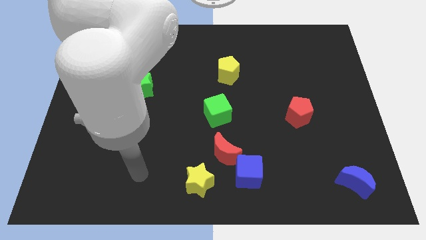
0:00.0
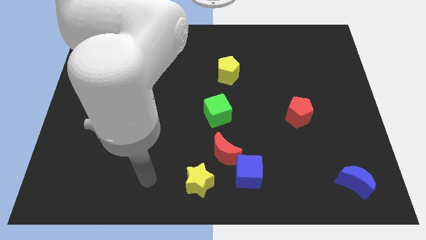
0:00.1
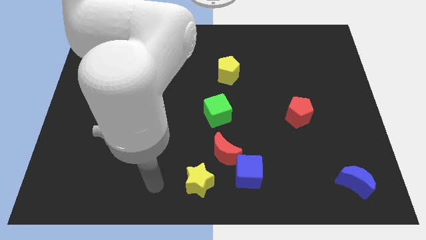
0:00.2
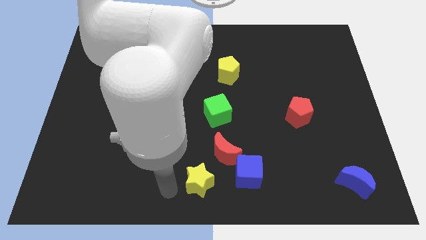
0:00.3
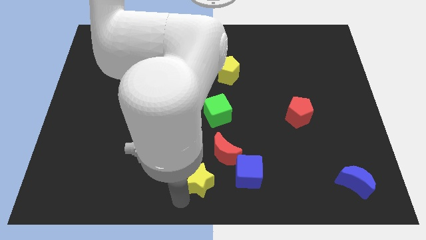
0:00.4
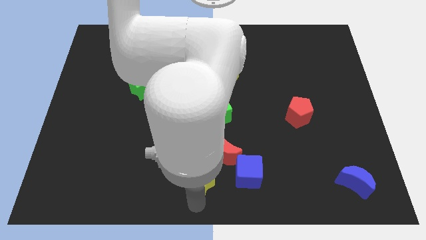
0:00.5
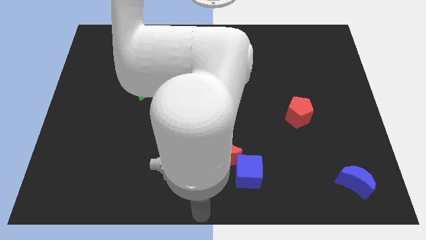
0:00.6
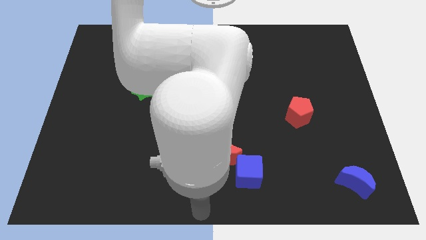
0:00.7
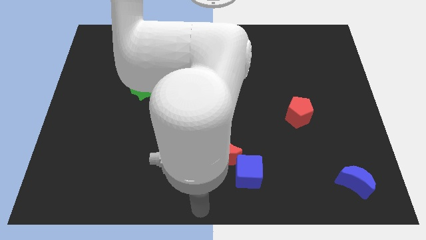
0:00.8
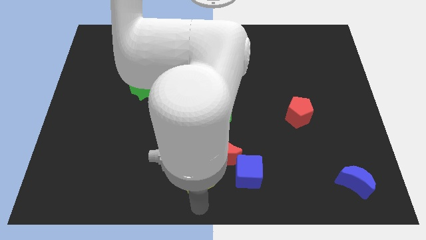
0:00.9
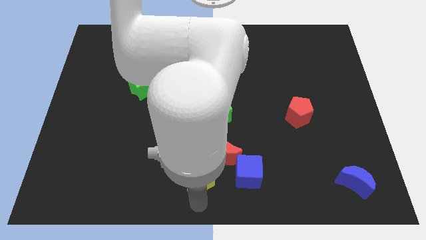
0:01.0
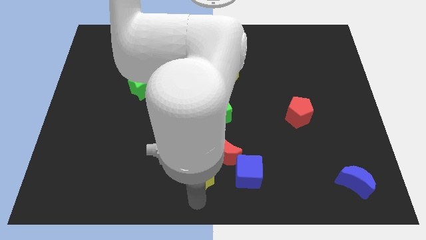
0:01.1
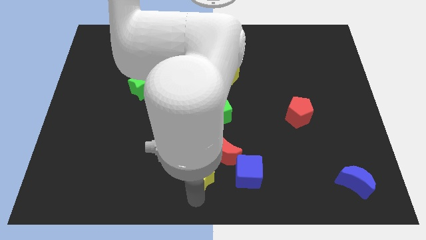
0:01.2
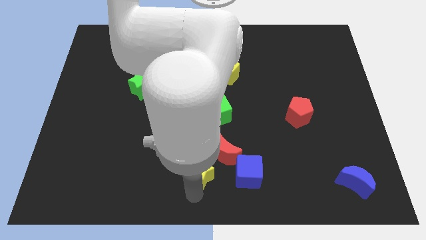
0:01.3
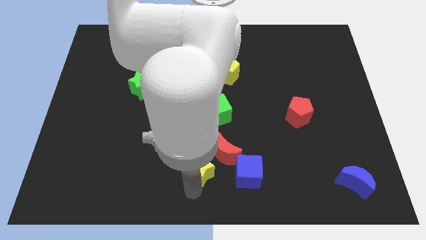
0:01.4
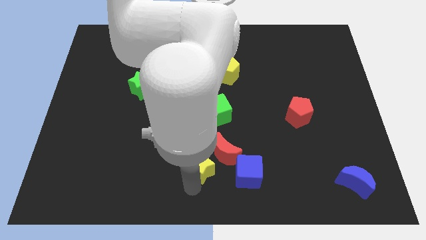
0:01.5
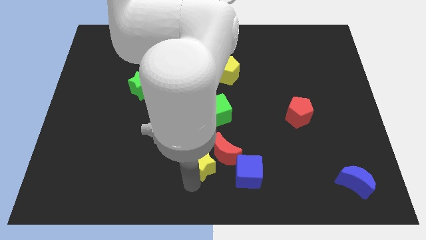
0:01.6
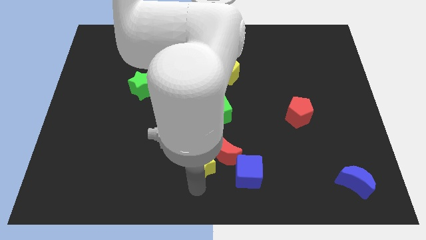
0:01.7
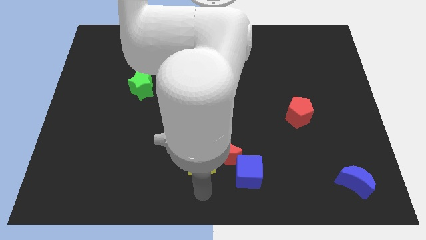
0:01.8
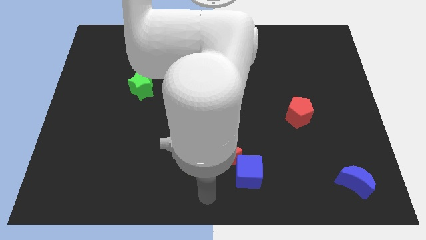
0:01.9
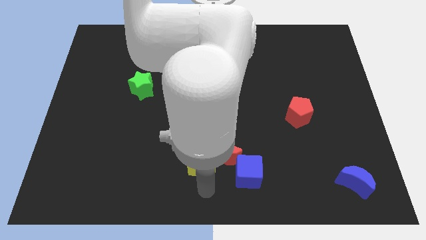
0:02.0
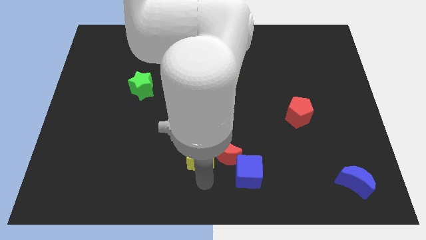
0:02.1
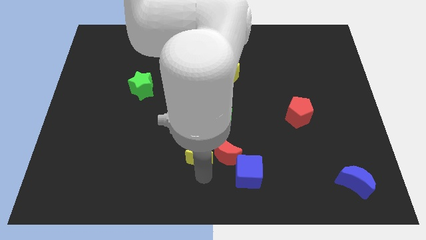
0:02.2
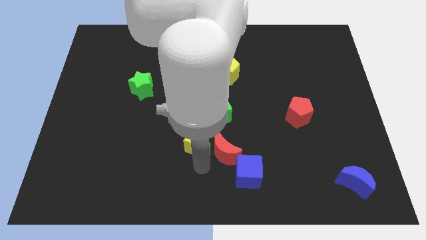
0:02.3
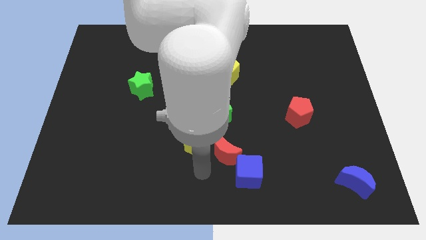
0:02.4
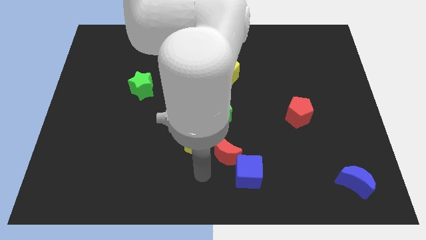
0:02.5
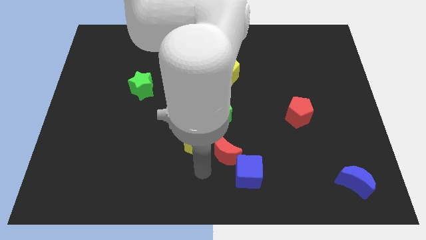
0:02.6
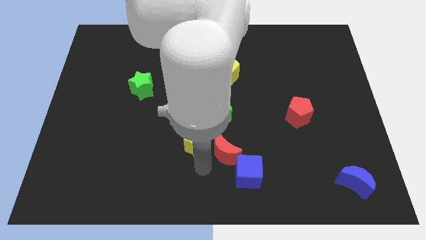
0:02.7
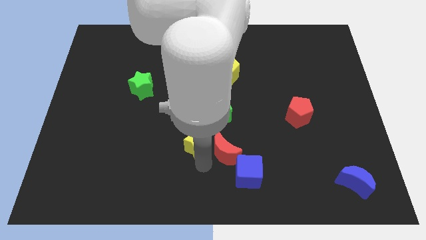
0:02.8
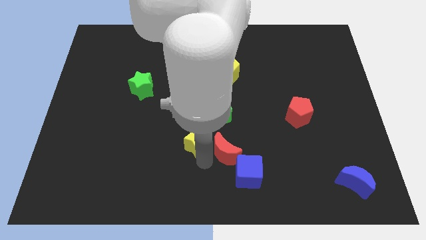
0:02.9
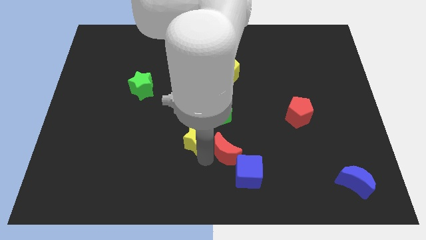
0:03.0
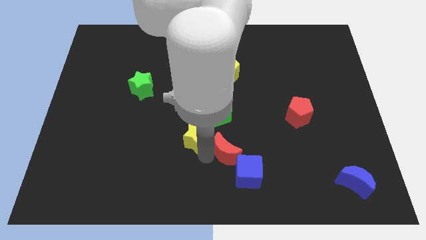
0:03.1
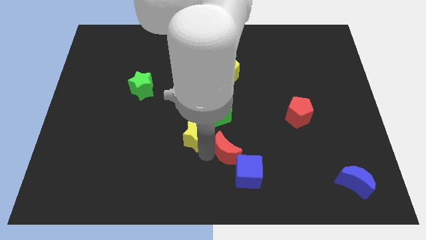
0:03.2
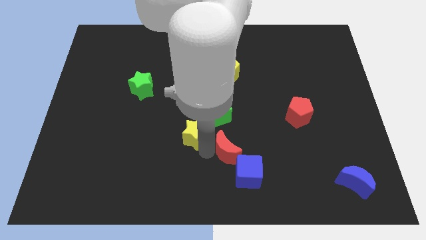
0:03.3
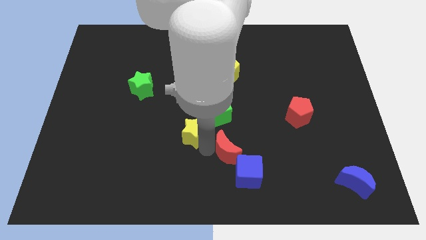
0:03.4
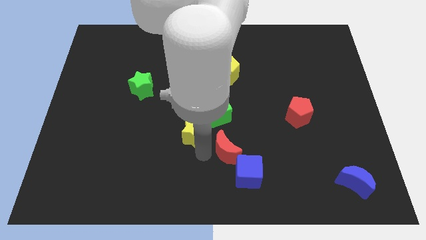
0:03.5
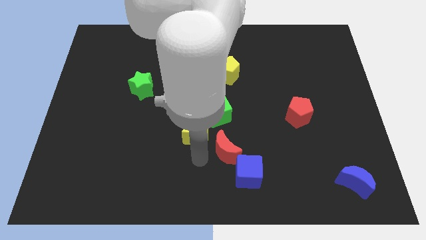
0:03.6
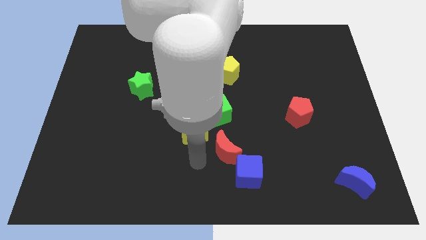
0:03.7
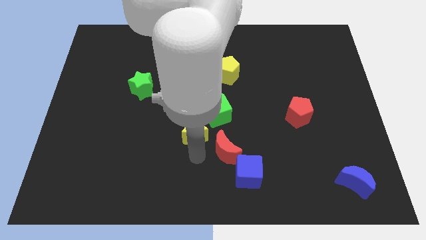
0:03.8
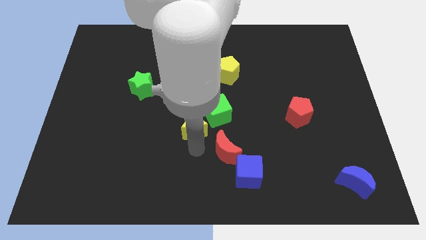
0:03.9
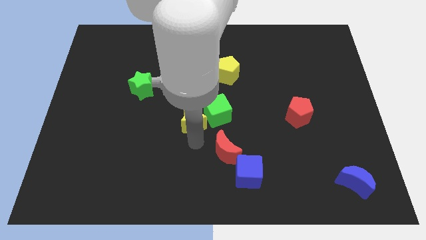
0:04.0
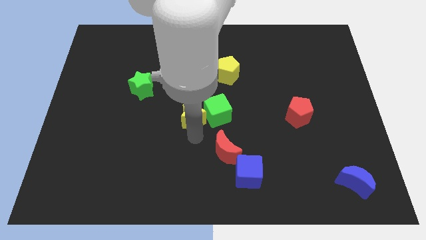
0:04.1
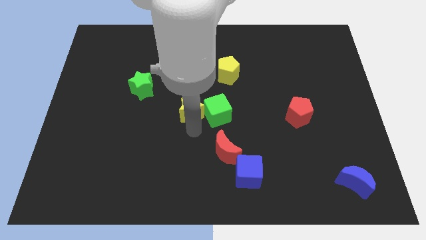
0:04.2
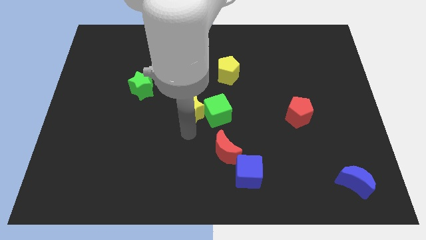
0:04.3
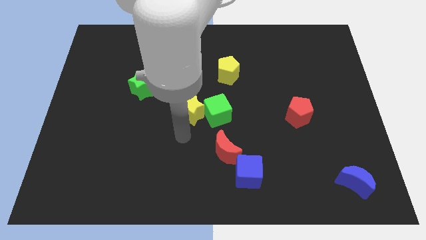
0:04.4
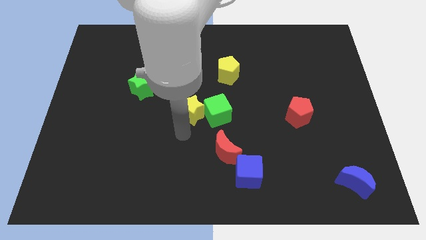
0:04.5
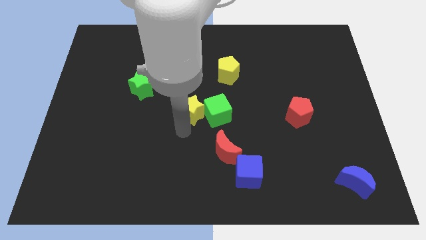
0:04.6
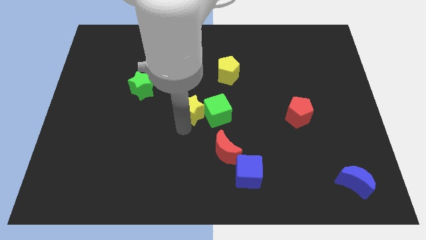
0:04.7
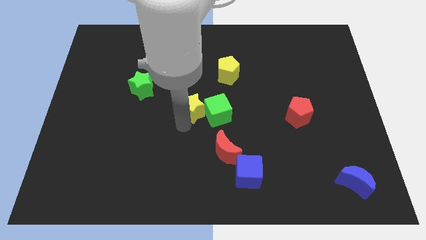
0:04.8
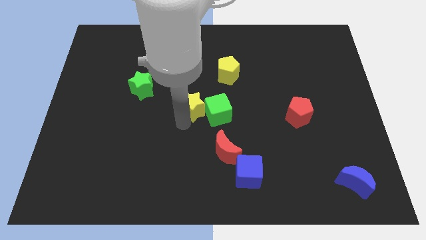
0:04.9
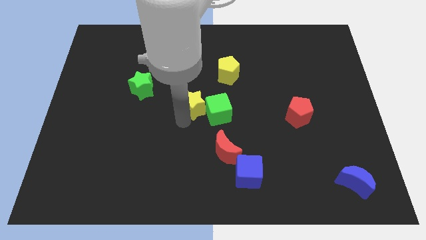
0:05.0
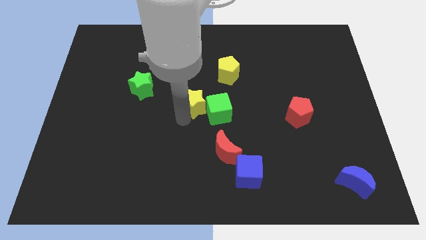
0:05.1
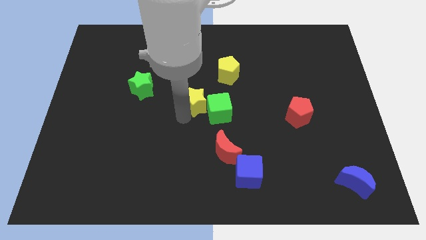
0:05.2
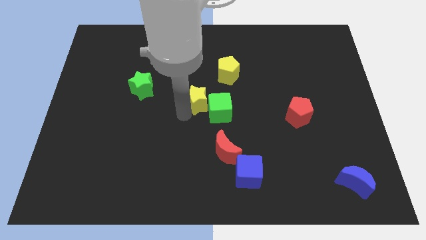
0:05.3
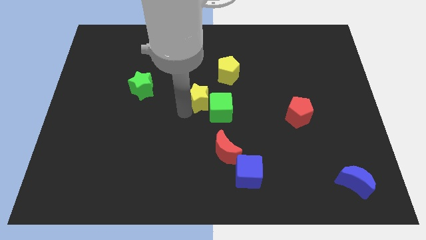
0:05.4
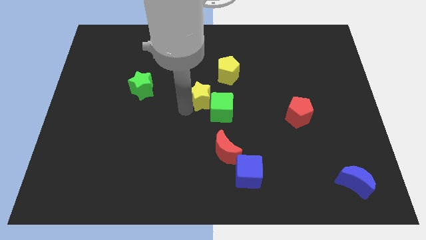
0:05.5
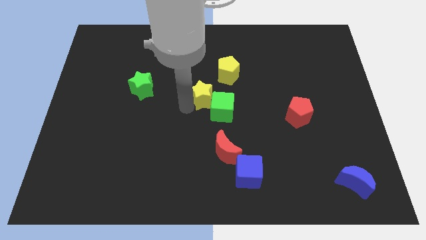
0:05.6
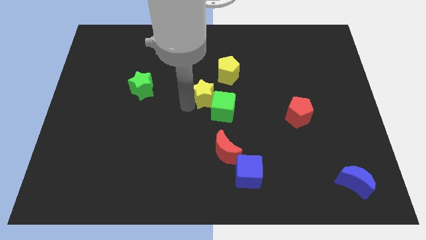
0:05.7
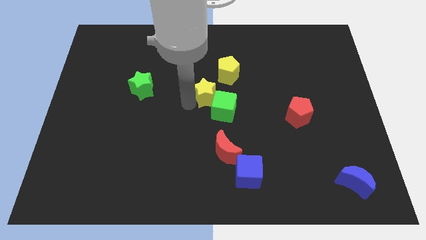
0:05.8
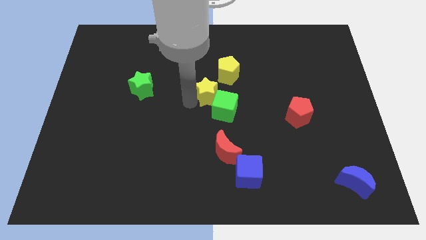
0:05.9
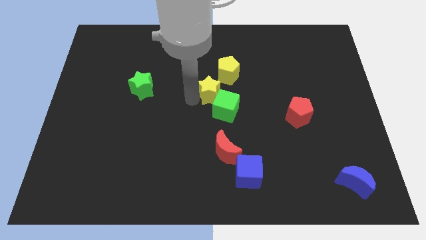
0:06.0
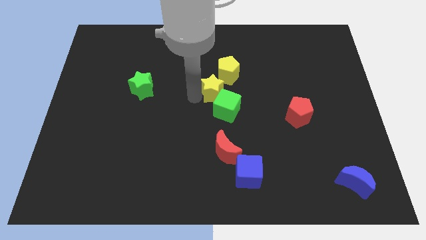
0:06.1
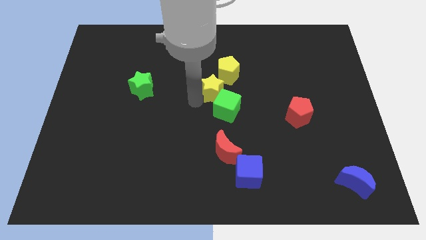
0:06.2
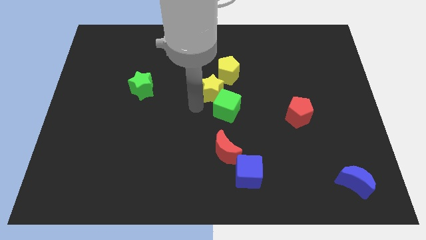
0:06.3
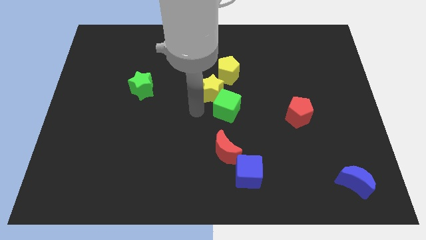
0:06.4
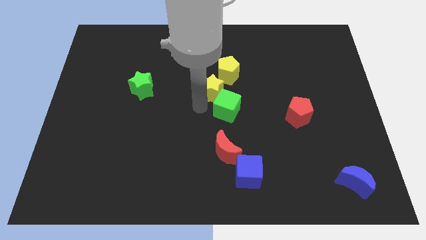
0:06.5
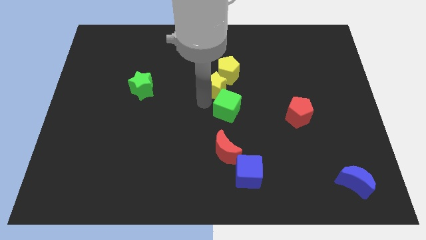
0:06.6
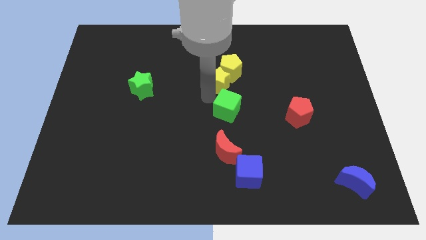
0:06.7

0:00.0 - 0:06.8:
push the yellow star next to the yellow pentagon
